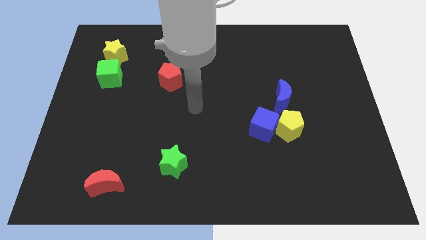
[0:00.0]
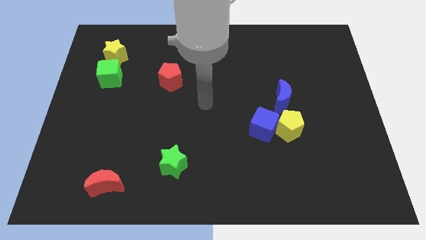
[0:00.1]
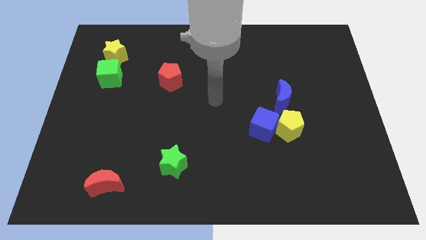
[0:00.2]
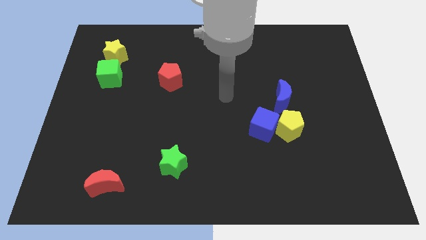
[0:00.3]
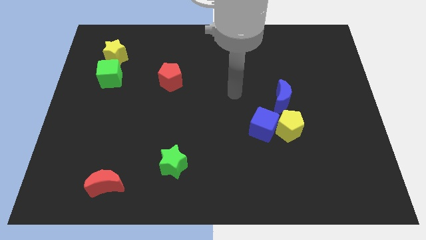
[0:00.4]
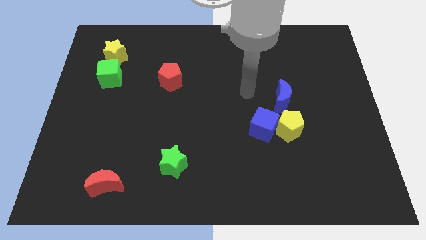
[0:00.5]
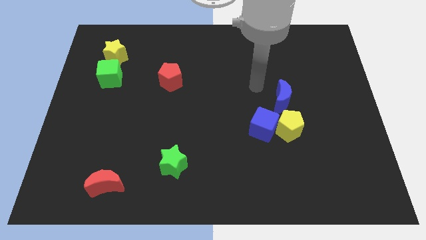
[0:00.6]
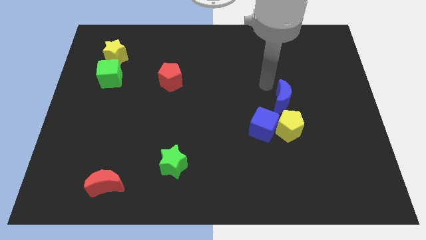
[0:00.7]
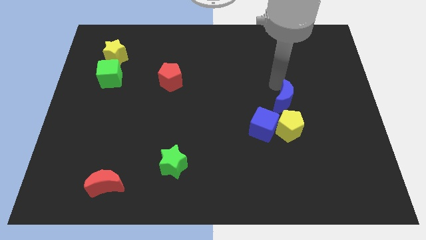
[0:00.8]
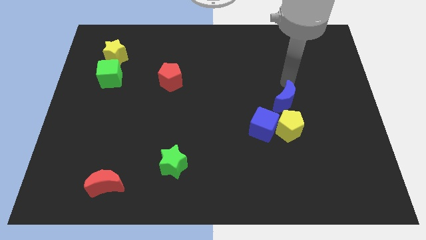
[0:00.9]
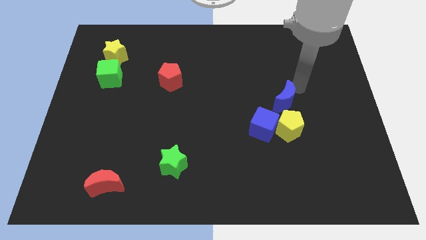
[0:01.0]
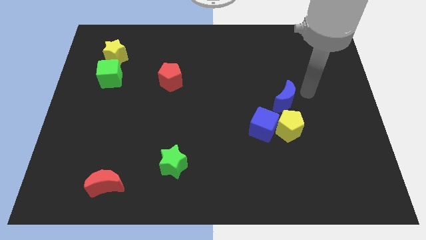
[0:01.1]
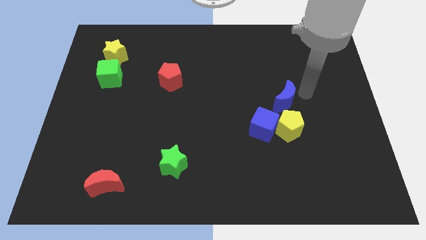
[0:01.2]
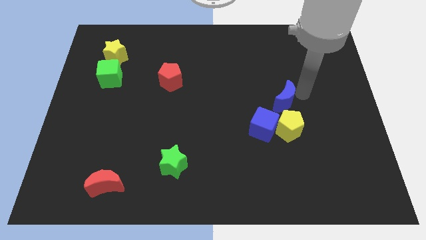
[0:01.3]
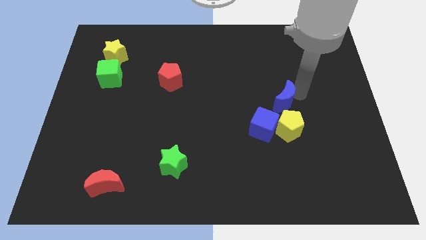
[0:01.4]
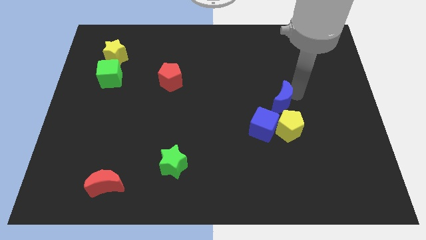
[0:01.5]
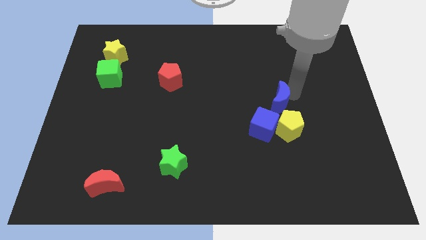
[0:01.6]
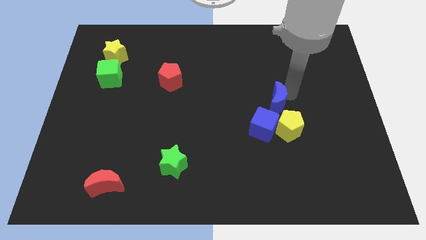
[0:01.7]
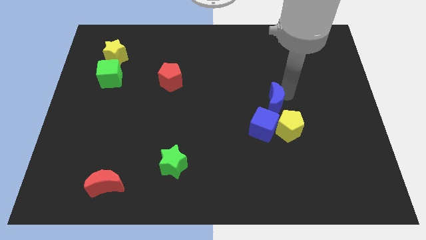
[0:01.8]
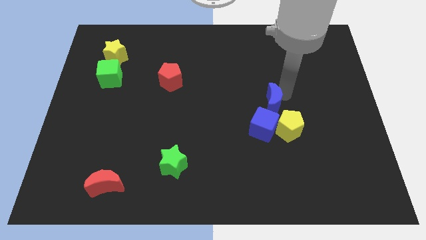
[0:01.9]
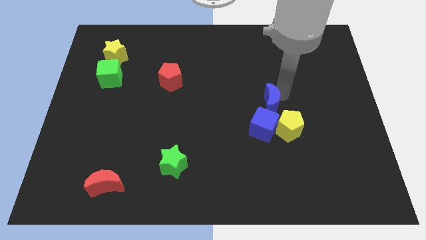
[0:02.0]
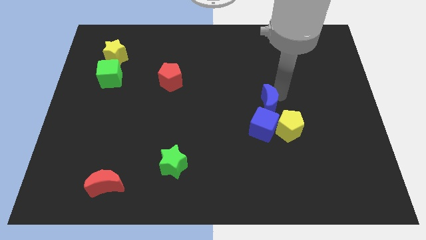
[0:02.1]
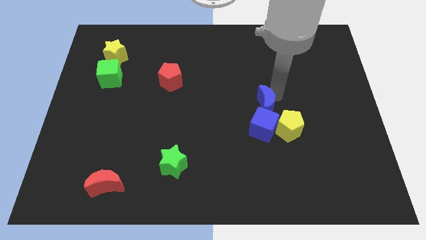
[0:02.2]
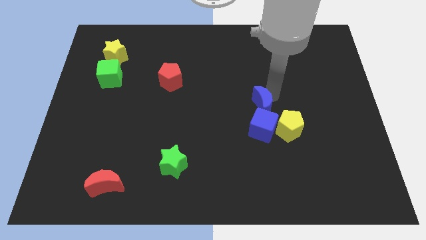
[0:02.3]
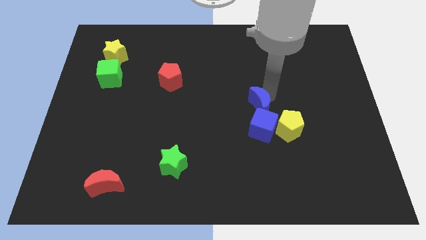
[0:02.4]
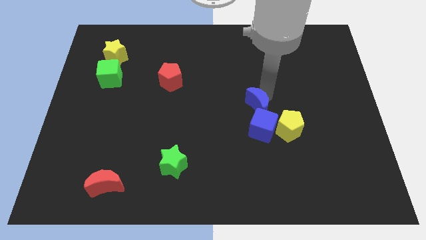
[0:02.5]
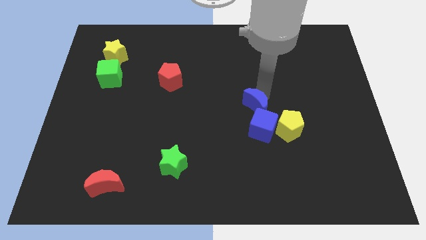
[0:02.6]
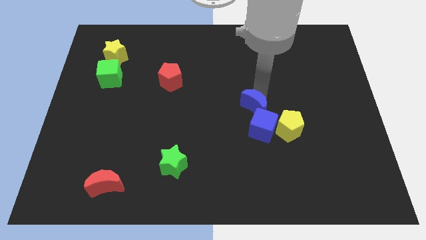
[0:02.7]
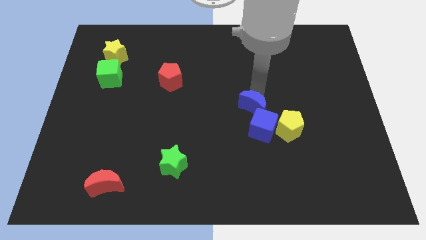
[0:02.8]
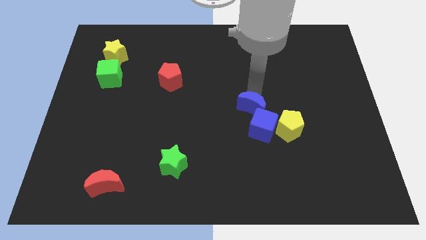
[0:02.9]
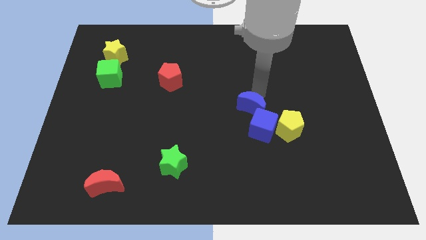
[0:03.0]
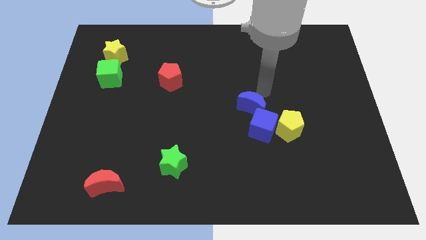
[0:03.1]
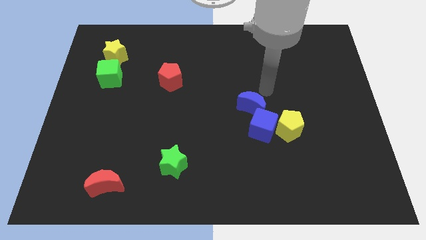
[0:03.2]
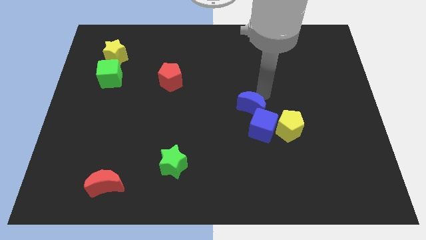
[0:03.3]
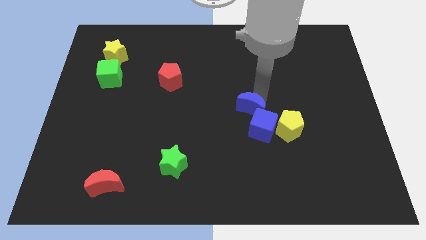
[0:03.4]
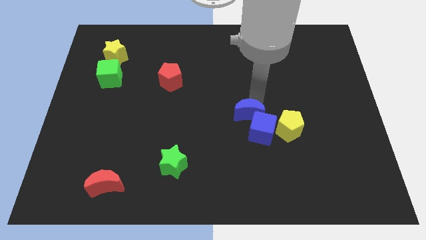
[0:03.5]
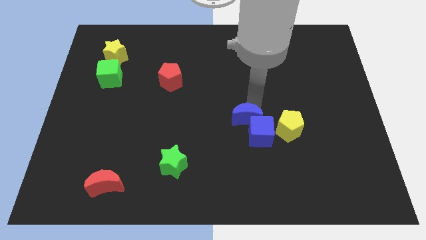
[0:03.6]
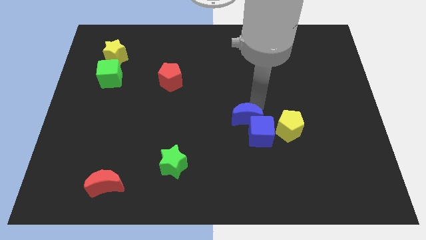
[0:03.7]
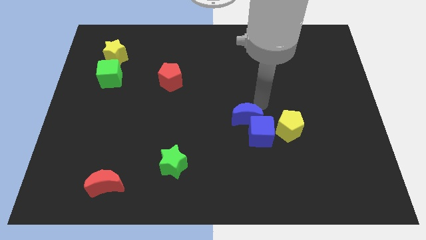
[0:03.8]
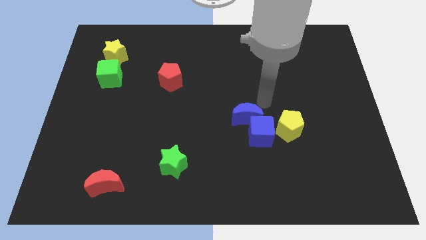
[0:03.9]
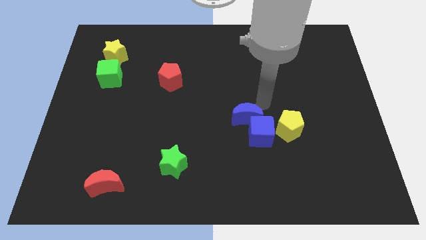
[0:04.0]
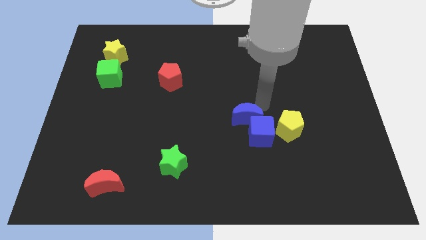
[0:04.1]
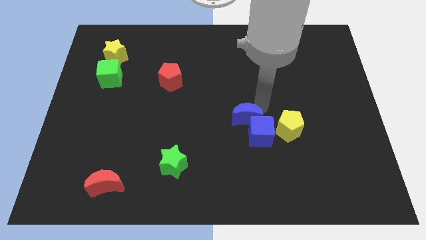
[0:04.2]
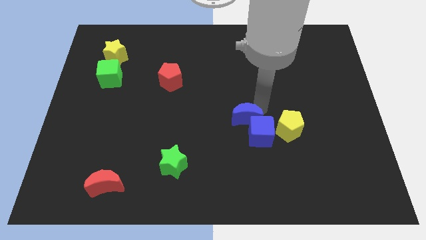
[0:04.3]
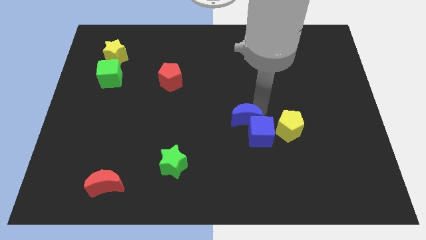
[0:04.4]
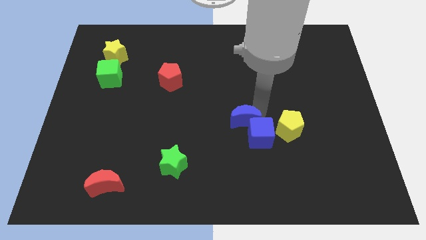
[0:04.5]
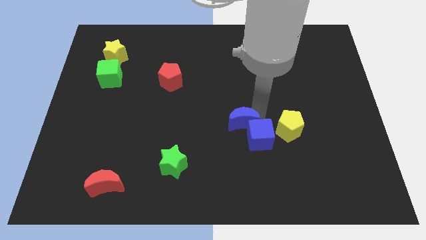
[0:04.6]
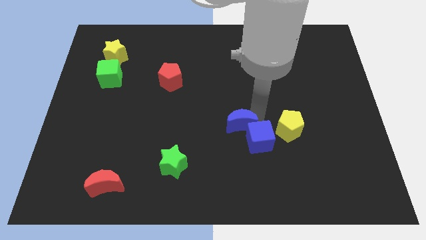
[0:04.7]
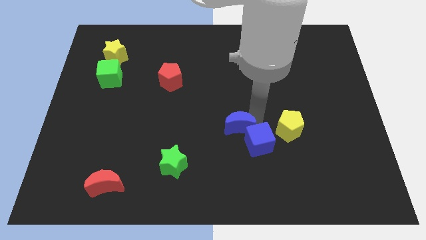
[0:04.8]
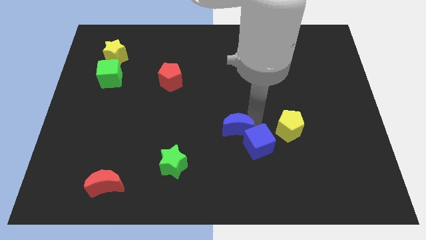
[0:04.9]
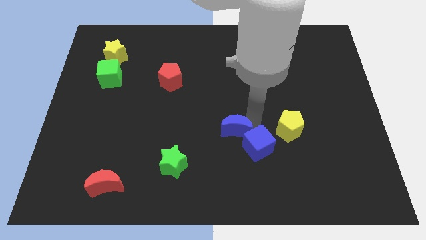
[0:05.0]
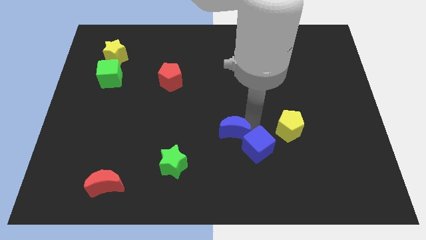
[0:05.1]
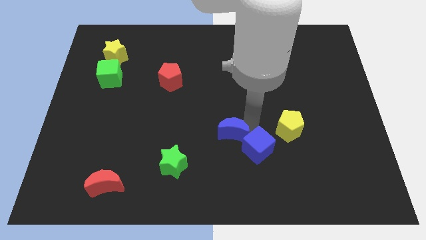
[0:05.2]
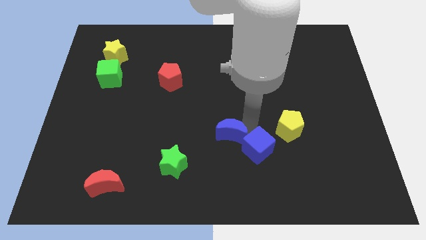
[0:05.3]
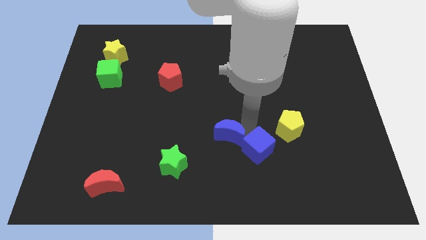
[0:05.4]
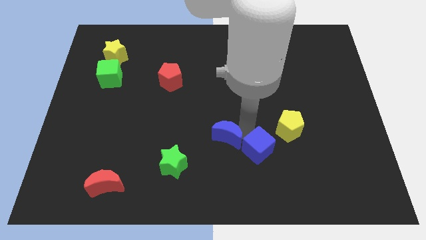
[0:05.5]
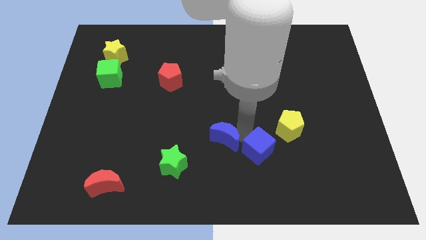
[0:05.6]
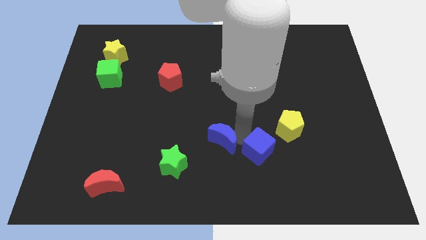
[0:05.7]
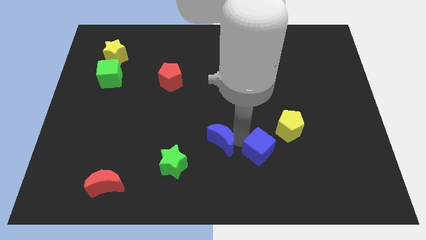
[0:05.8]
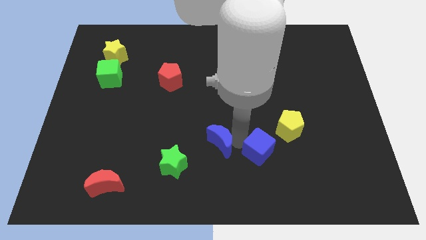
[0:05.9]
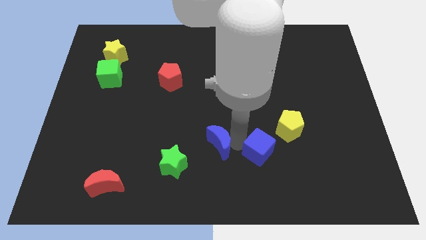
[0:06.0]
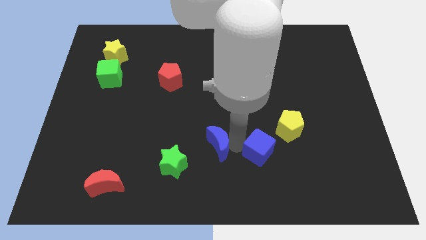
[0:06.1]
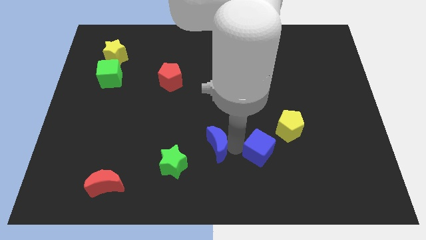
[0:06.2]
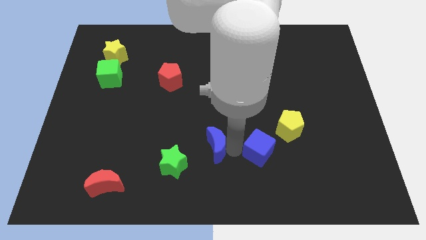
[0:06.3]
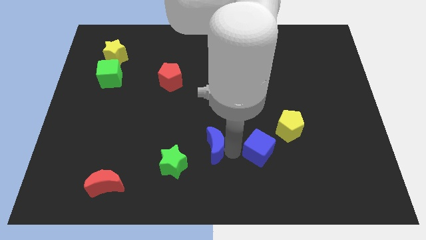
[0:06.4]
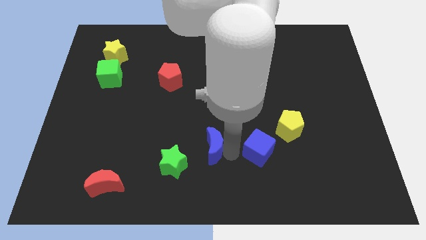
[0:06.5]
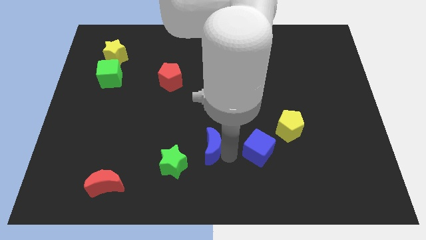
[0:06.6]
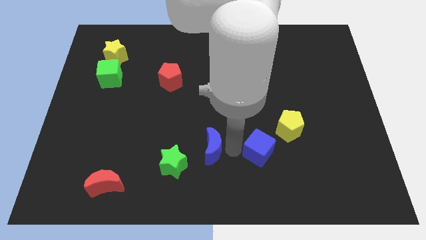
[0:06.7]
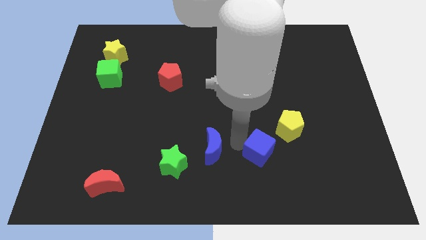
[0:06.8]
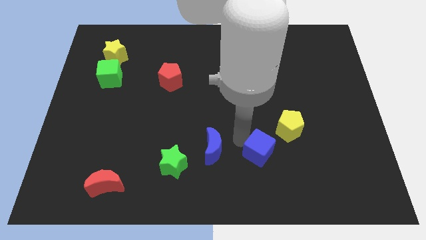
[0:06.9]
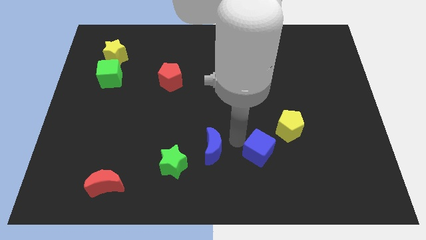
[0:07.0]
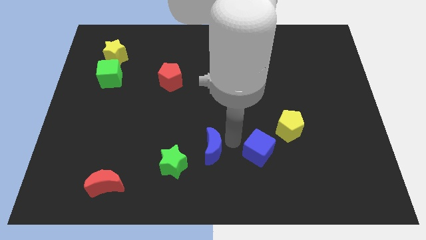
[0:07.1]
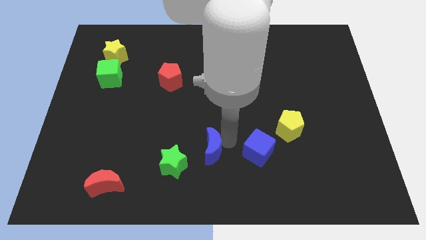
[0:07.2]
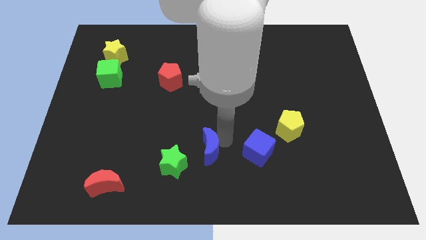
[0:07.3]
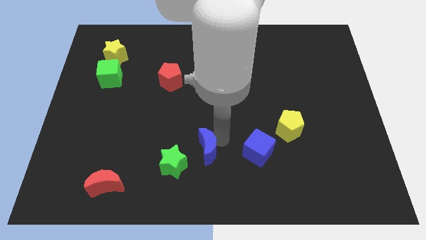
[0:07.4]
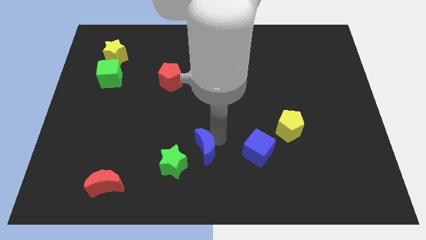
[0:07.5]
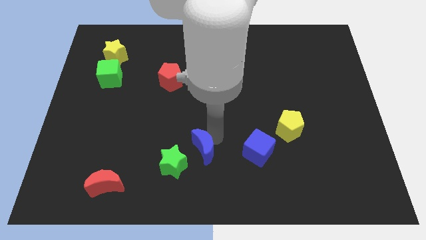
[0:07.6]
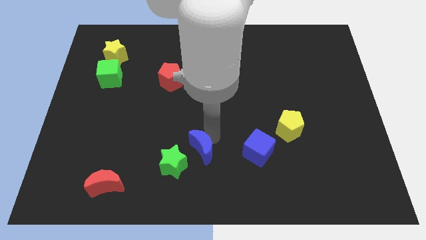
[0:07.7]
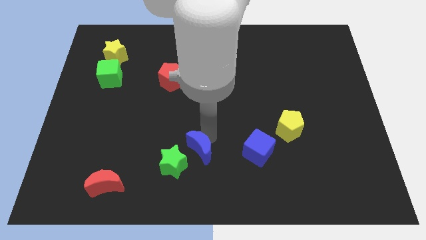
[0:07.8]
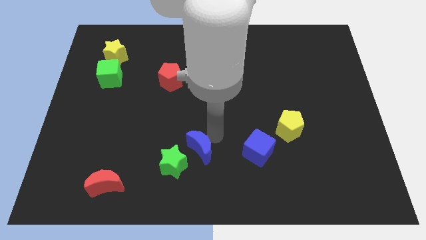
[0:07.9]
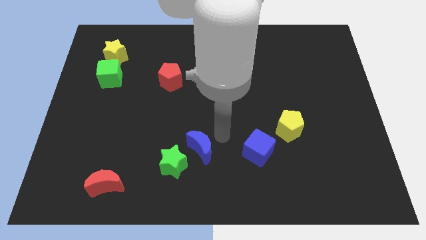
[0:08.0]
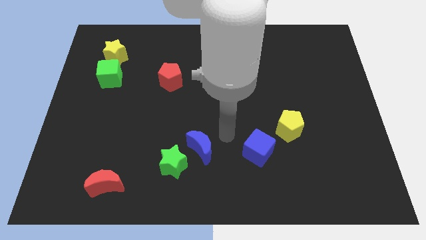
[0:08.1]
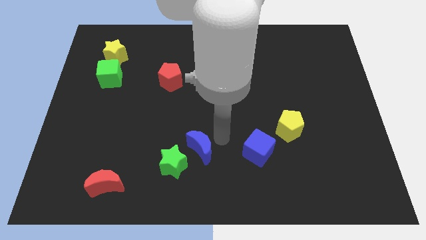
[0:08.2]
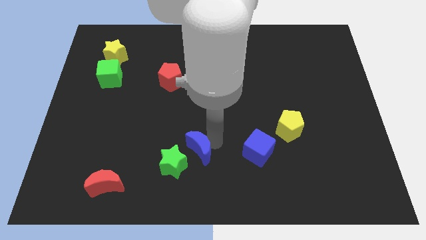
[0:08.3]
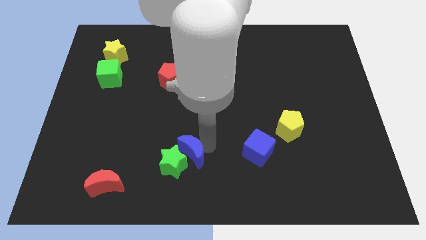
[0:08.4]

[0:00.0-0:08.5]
put the blue moon close to the green star
